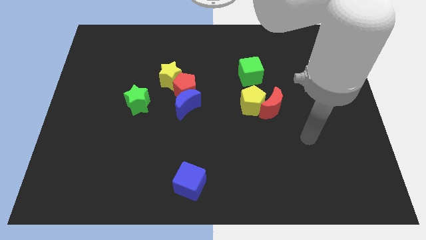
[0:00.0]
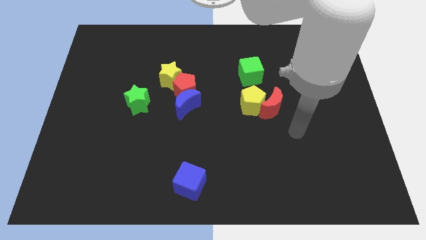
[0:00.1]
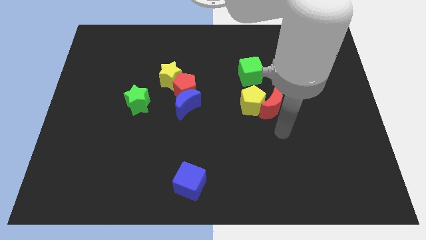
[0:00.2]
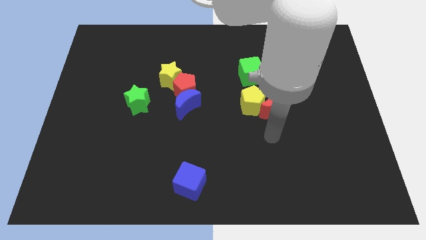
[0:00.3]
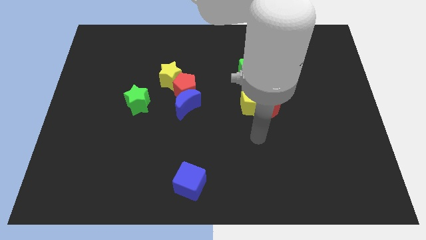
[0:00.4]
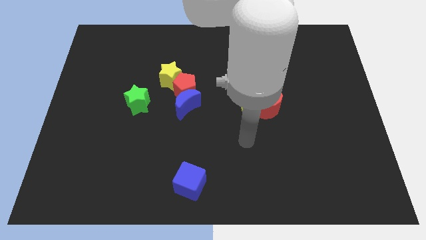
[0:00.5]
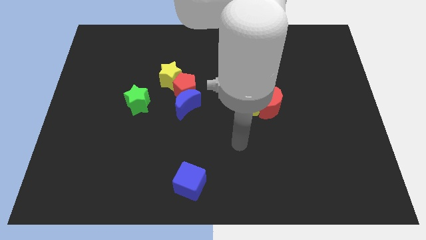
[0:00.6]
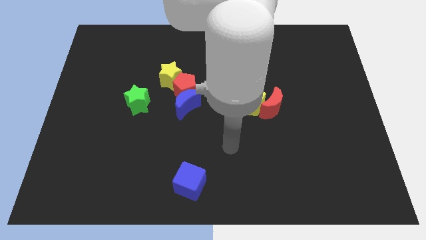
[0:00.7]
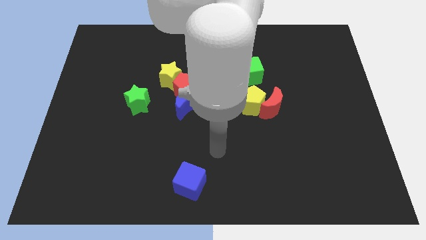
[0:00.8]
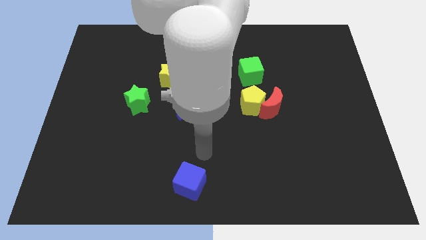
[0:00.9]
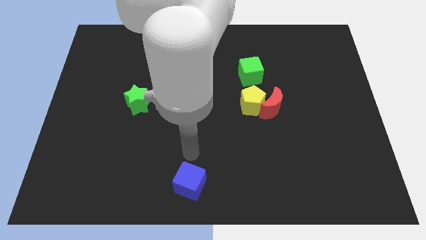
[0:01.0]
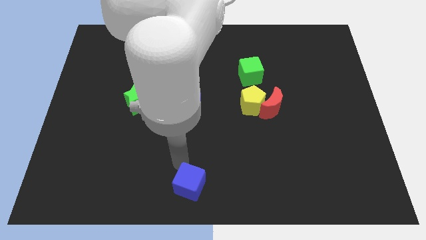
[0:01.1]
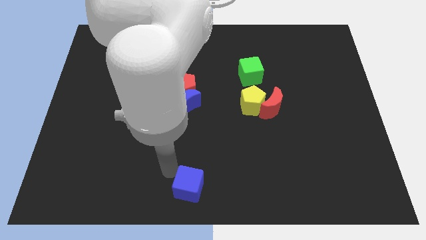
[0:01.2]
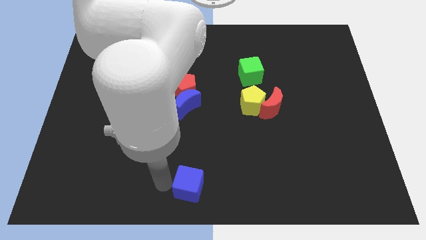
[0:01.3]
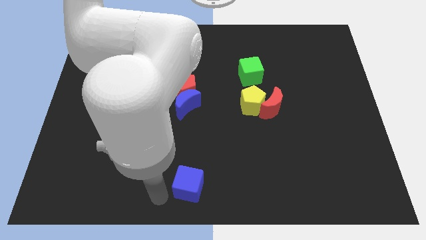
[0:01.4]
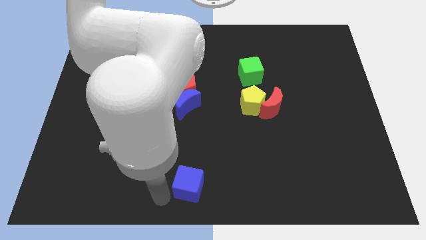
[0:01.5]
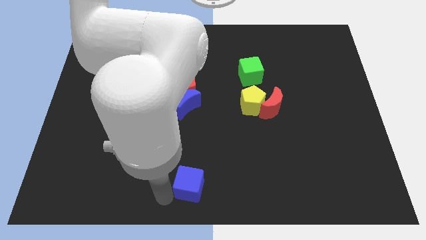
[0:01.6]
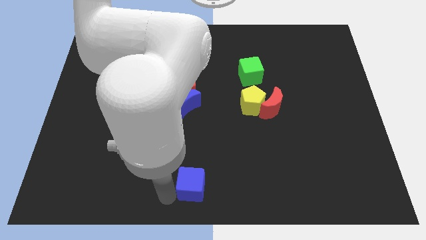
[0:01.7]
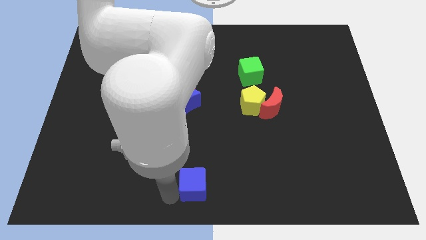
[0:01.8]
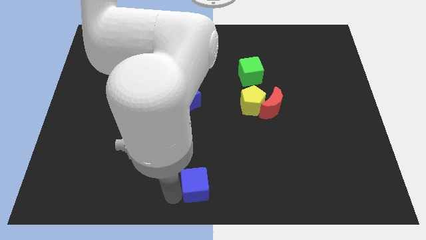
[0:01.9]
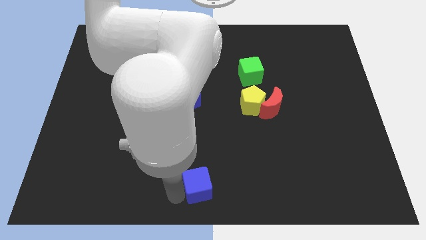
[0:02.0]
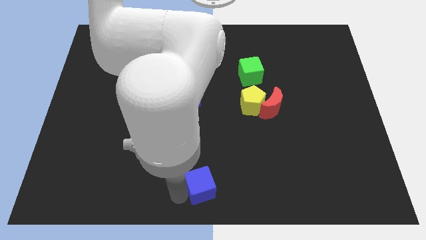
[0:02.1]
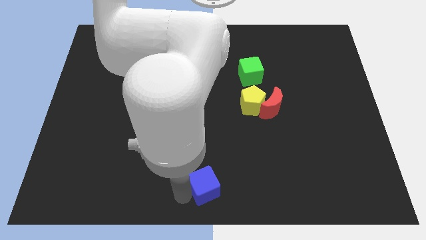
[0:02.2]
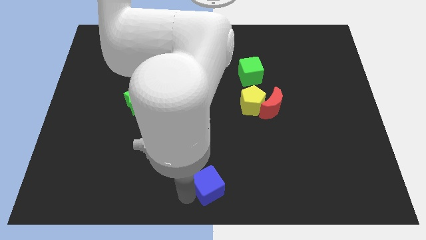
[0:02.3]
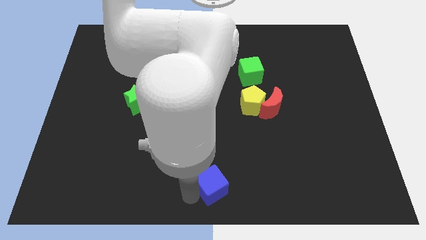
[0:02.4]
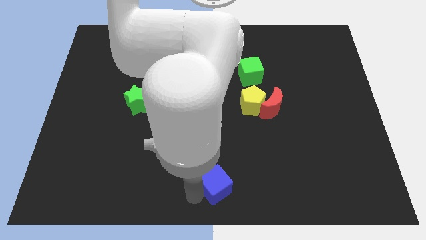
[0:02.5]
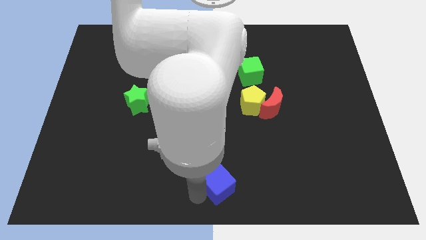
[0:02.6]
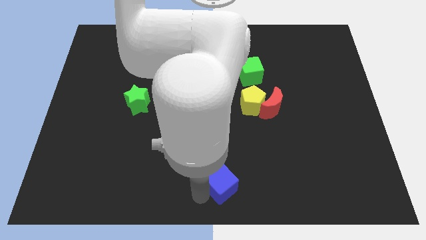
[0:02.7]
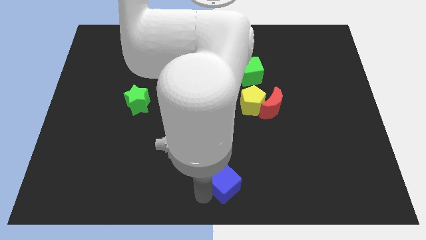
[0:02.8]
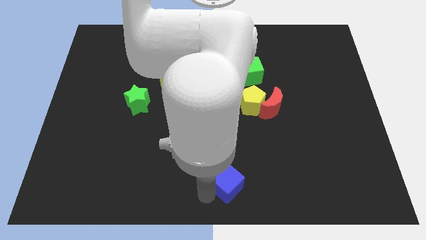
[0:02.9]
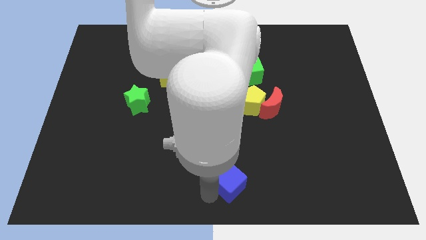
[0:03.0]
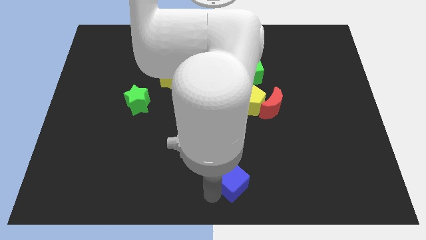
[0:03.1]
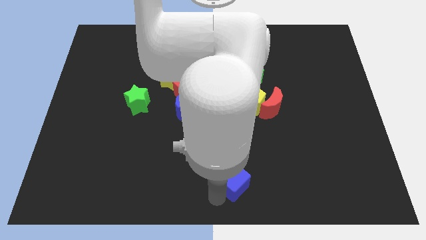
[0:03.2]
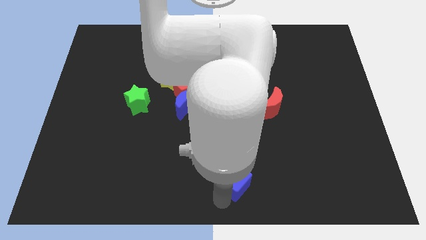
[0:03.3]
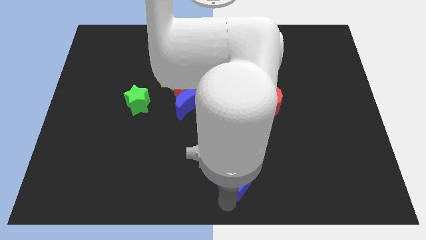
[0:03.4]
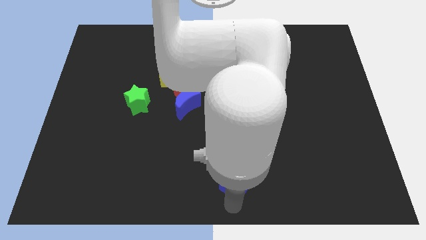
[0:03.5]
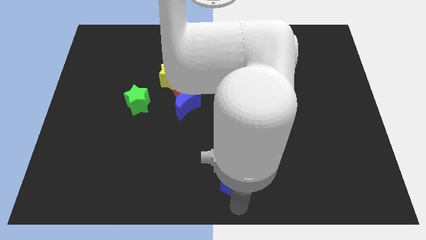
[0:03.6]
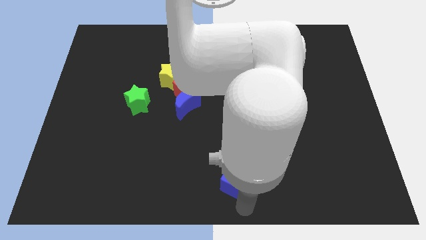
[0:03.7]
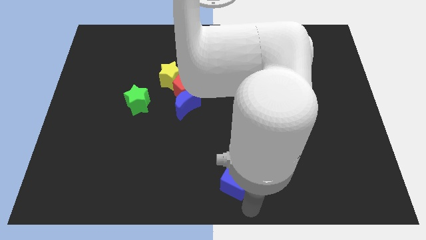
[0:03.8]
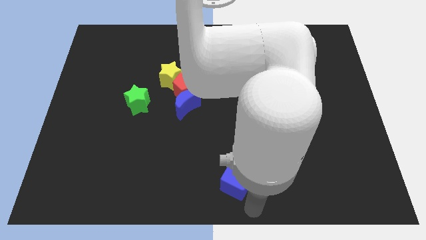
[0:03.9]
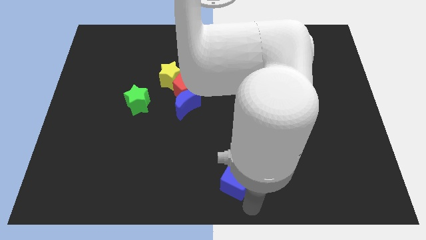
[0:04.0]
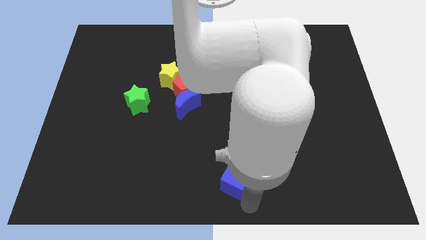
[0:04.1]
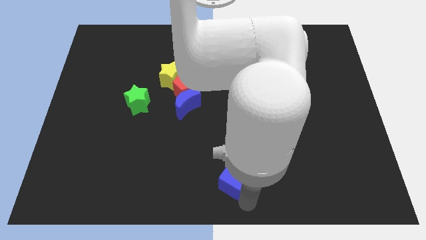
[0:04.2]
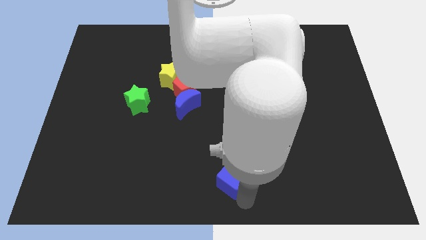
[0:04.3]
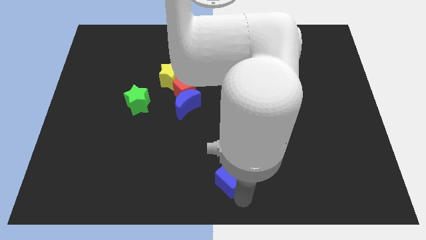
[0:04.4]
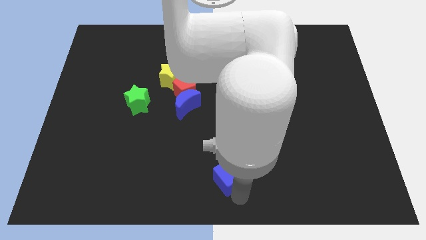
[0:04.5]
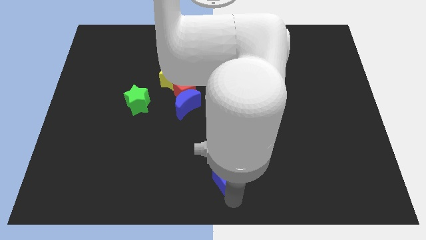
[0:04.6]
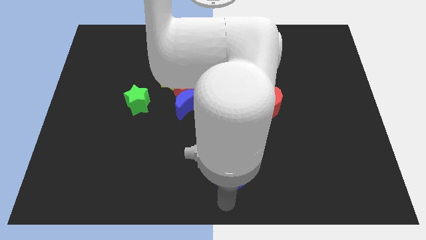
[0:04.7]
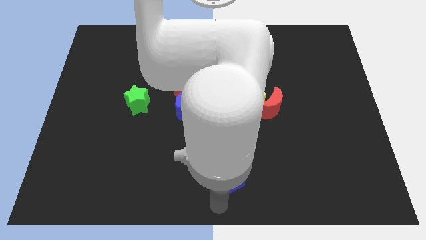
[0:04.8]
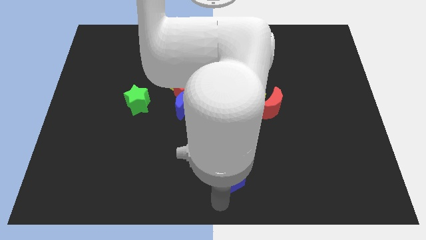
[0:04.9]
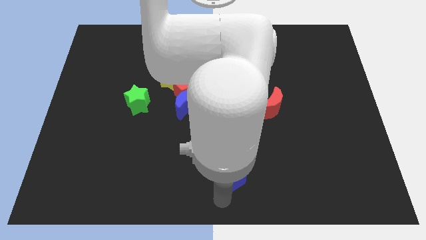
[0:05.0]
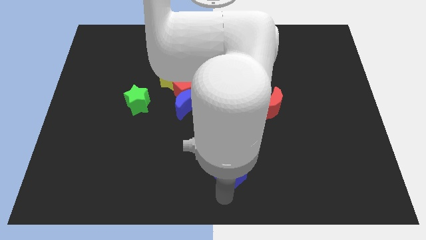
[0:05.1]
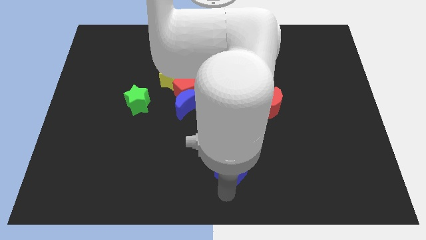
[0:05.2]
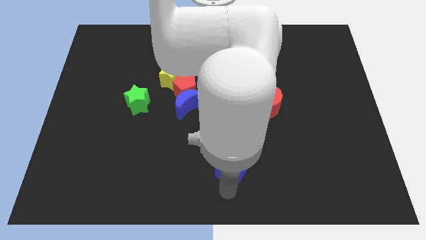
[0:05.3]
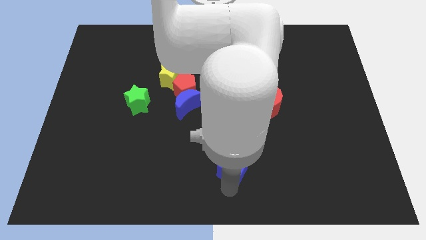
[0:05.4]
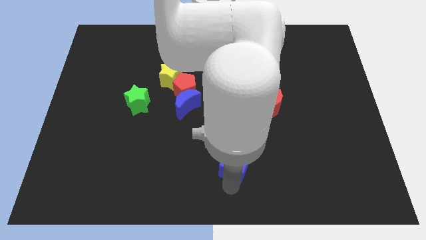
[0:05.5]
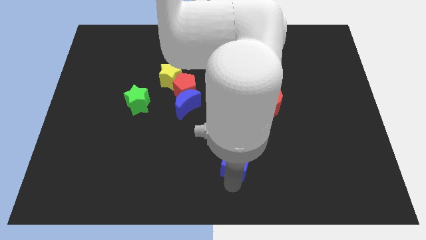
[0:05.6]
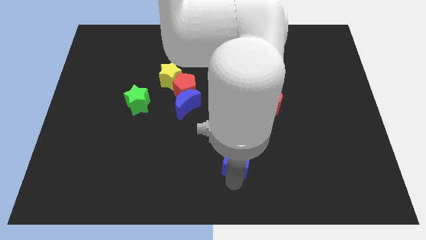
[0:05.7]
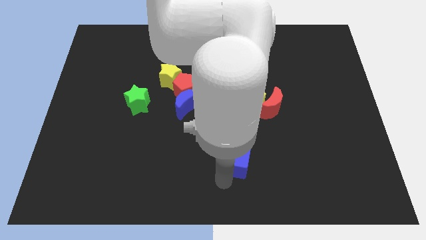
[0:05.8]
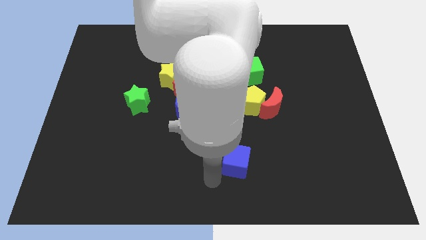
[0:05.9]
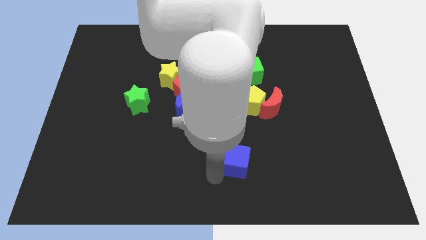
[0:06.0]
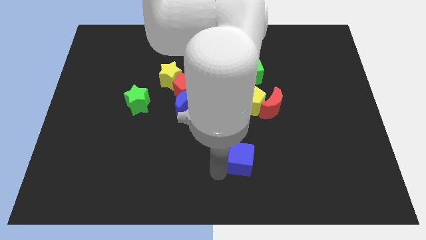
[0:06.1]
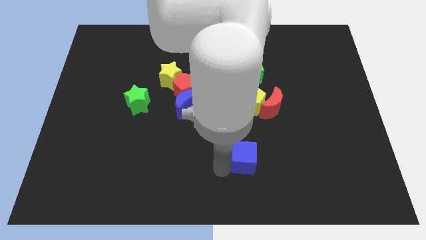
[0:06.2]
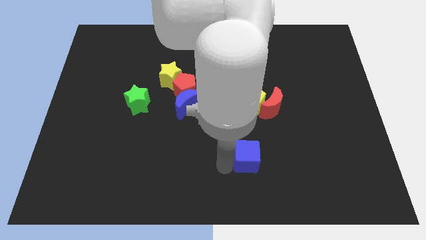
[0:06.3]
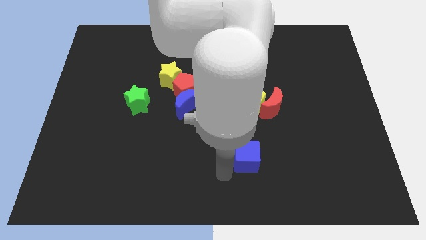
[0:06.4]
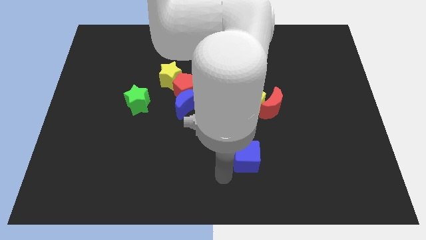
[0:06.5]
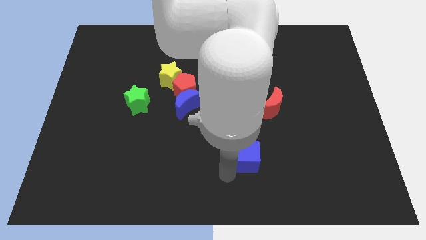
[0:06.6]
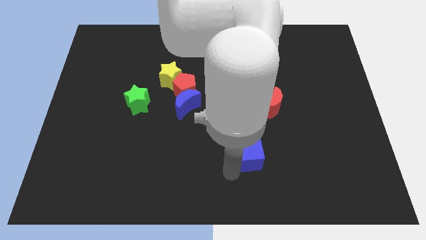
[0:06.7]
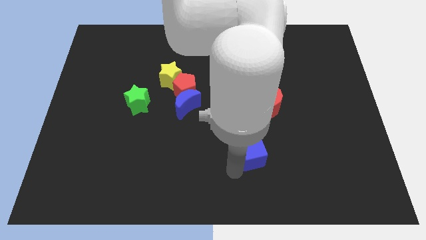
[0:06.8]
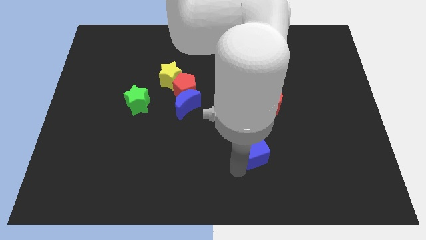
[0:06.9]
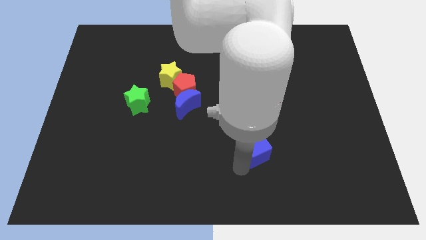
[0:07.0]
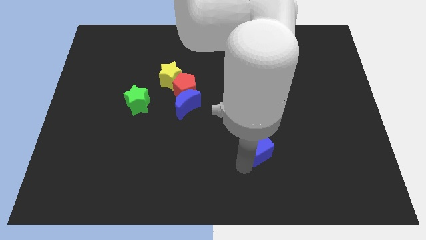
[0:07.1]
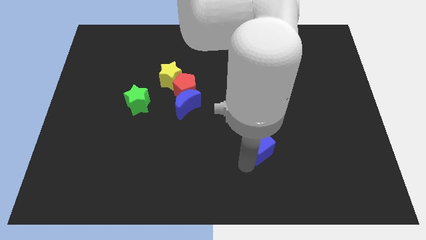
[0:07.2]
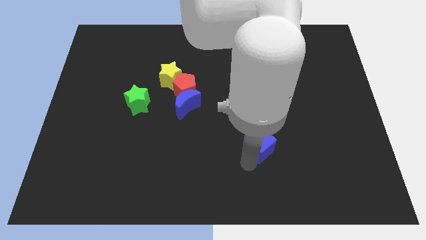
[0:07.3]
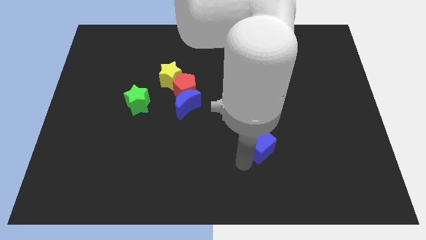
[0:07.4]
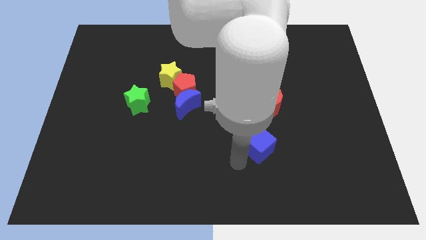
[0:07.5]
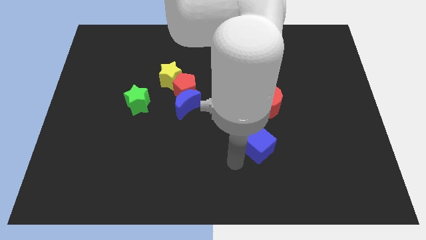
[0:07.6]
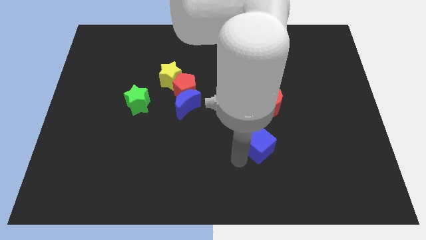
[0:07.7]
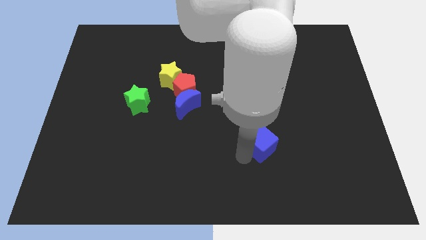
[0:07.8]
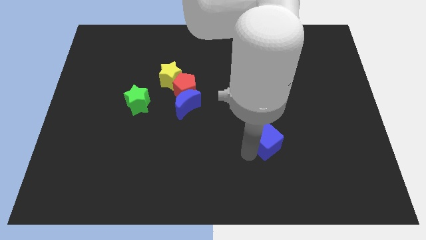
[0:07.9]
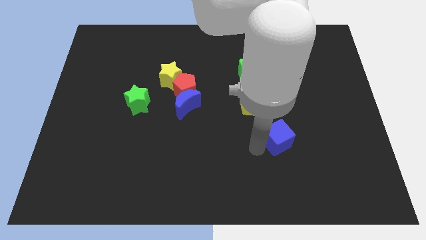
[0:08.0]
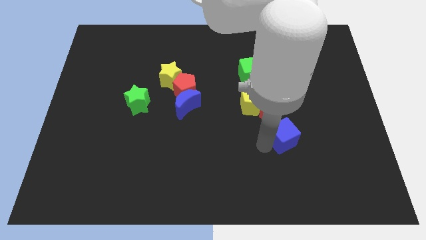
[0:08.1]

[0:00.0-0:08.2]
push the blue cube to the bottom right of the red moon
